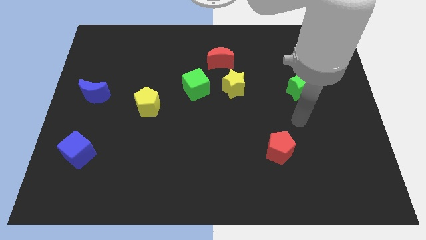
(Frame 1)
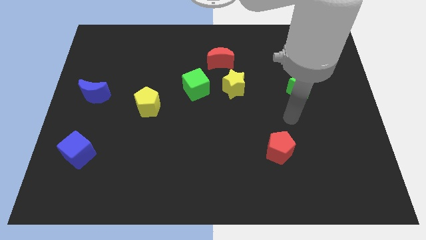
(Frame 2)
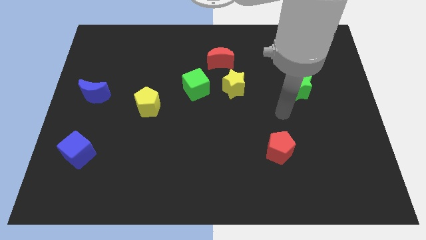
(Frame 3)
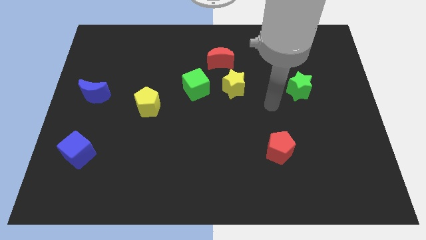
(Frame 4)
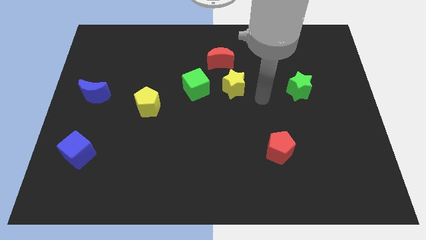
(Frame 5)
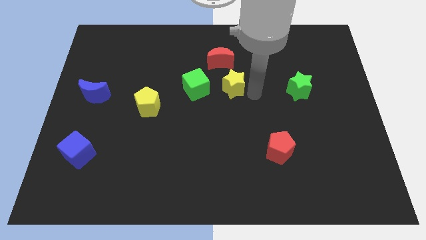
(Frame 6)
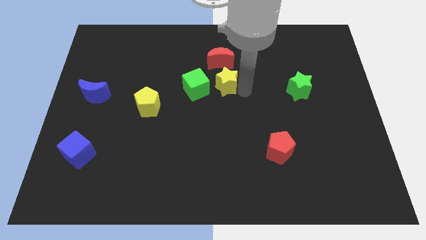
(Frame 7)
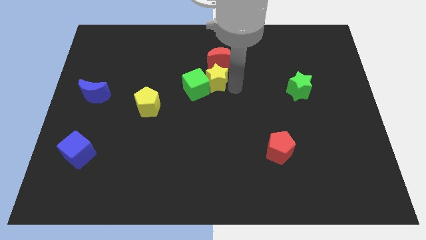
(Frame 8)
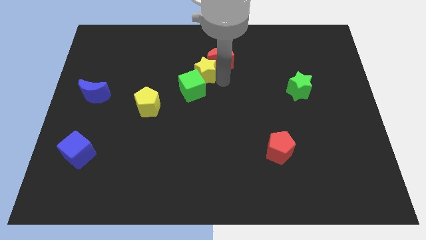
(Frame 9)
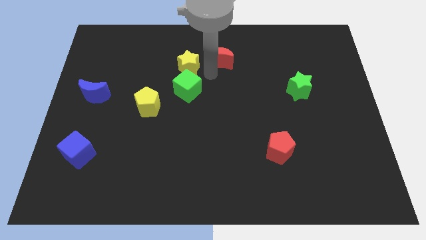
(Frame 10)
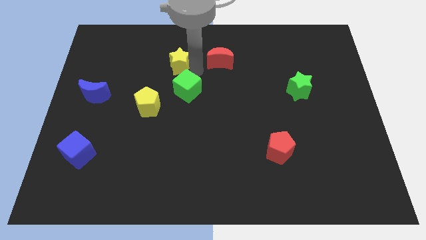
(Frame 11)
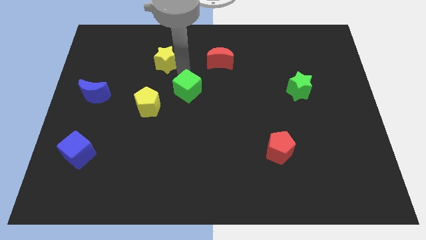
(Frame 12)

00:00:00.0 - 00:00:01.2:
move the green cube away from the yellow star

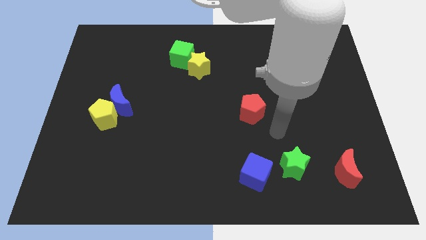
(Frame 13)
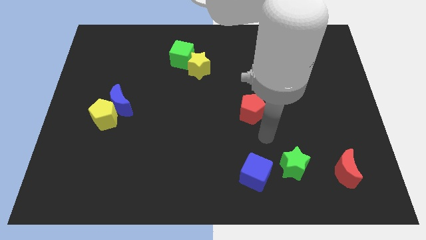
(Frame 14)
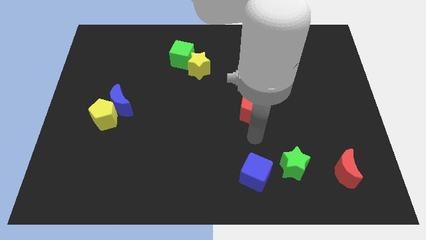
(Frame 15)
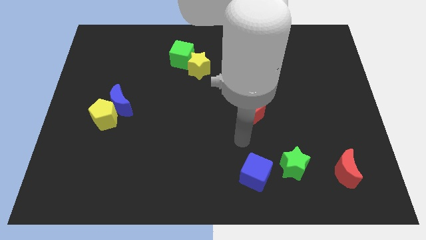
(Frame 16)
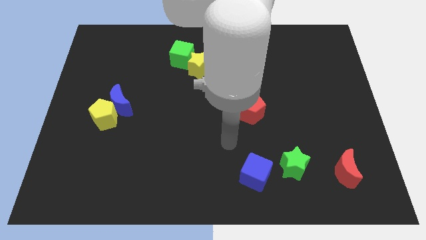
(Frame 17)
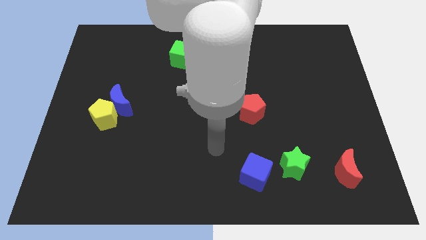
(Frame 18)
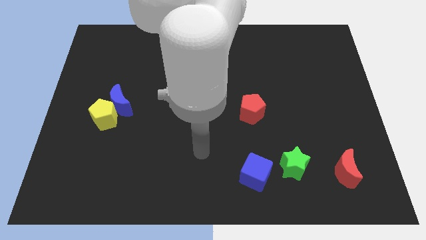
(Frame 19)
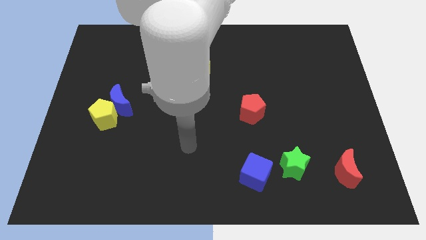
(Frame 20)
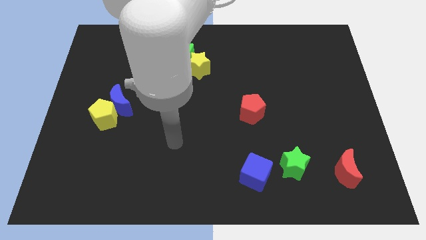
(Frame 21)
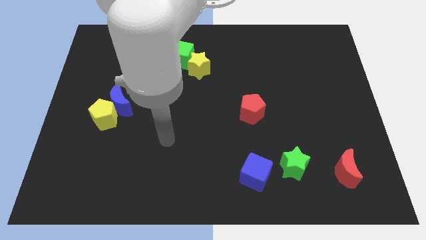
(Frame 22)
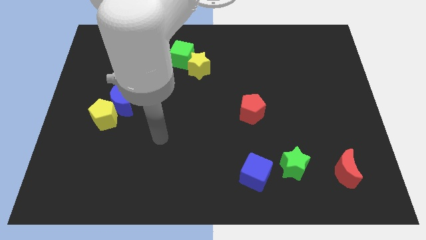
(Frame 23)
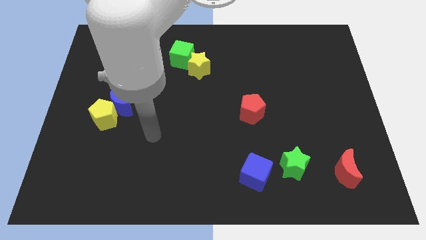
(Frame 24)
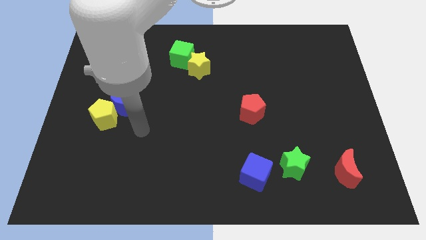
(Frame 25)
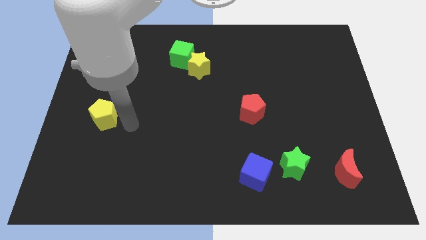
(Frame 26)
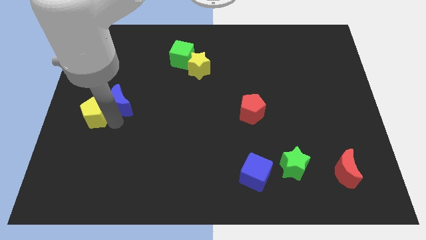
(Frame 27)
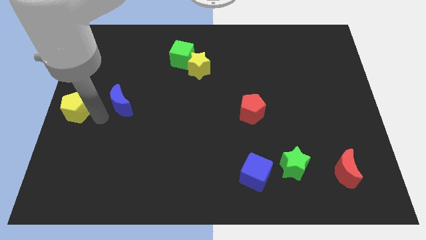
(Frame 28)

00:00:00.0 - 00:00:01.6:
separate the blue moon from the yellow pentagon

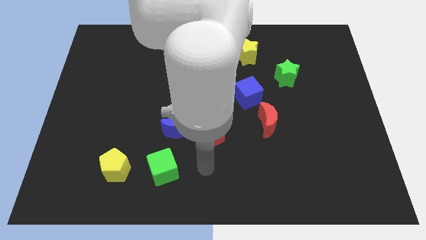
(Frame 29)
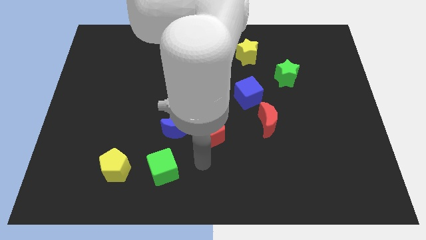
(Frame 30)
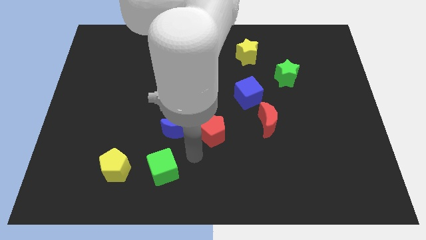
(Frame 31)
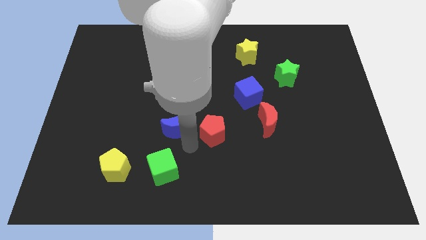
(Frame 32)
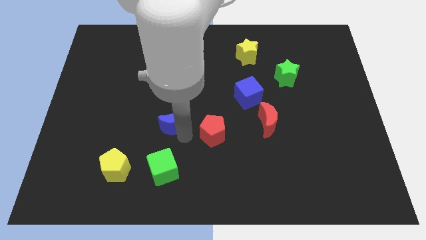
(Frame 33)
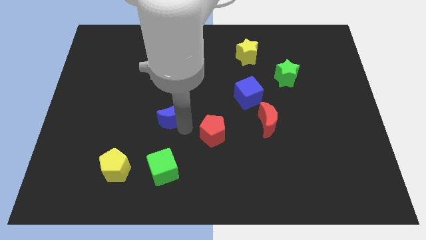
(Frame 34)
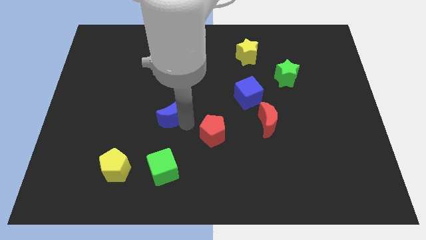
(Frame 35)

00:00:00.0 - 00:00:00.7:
separate the red pentagon from the blue moon

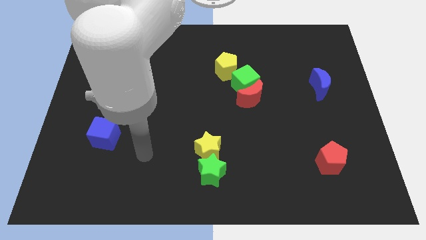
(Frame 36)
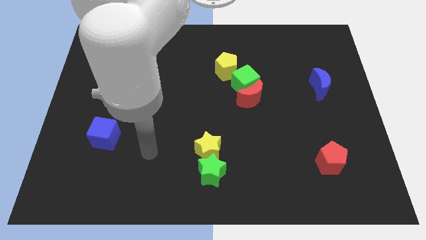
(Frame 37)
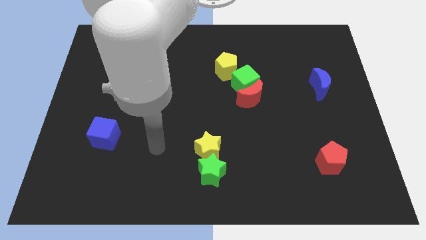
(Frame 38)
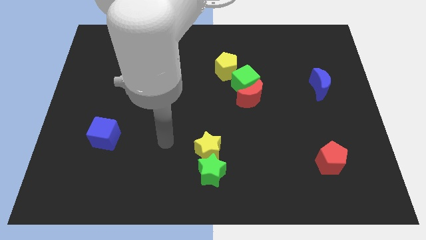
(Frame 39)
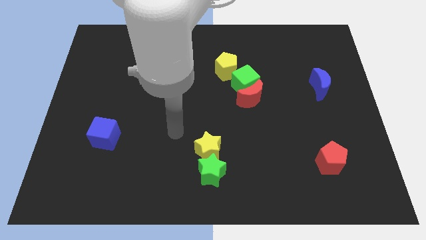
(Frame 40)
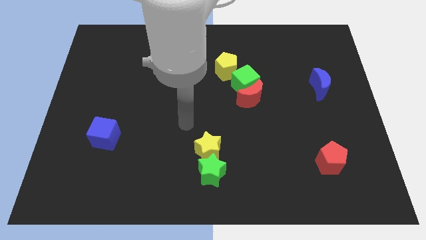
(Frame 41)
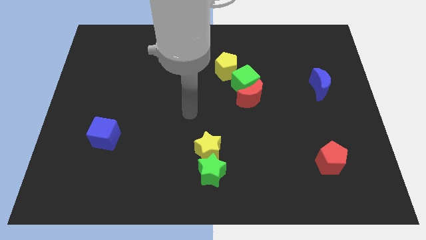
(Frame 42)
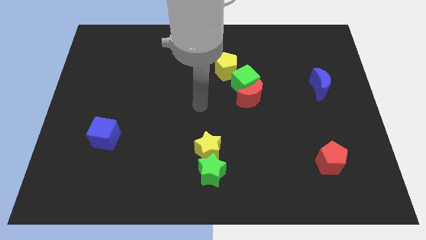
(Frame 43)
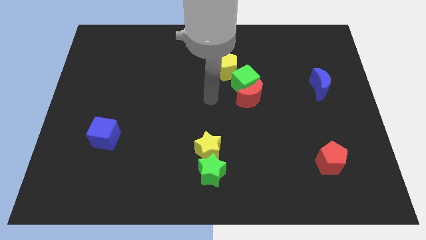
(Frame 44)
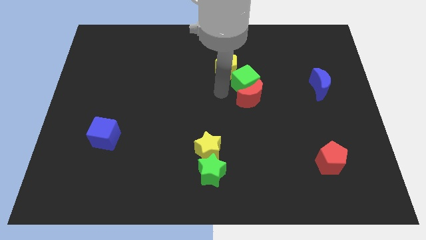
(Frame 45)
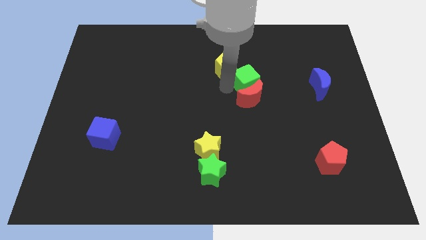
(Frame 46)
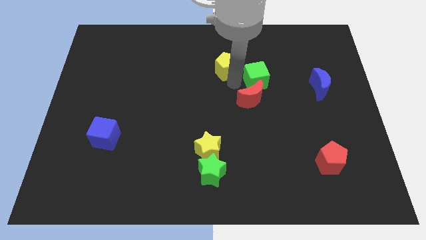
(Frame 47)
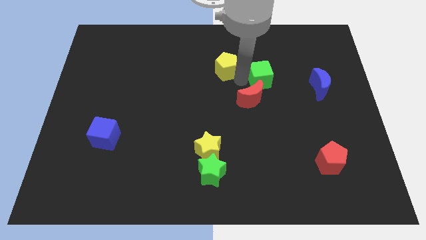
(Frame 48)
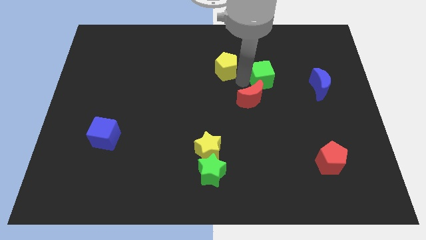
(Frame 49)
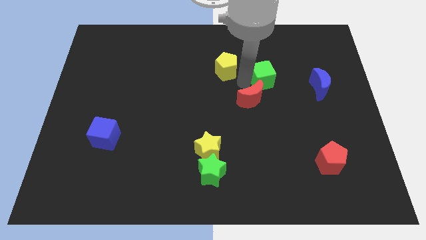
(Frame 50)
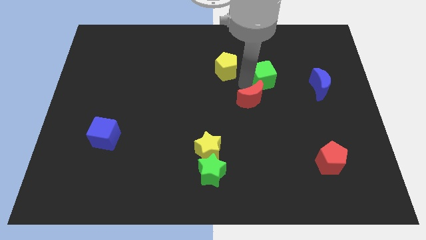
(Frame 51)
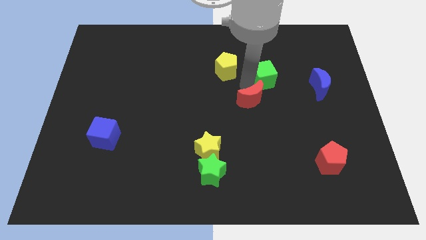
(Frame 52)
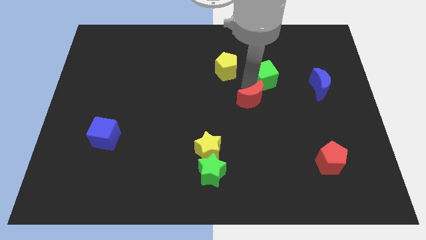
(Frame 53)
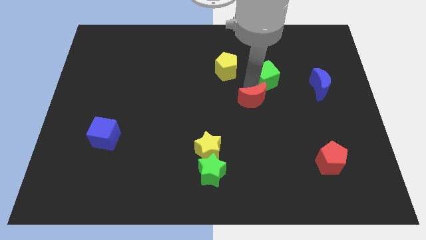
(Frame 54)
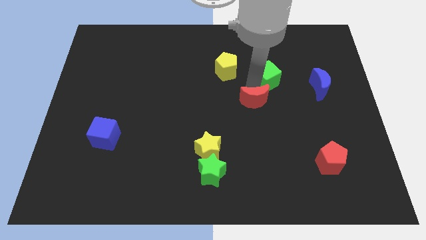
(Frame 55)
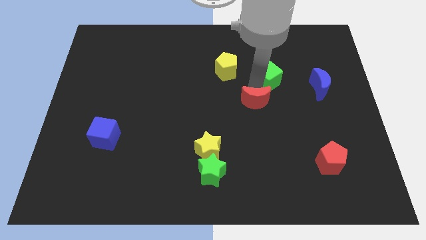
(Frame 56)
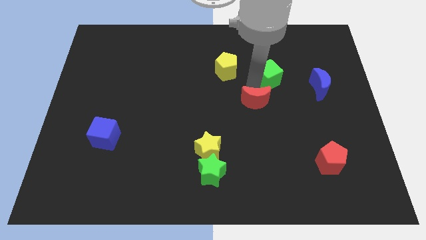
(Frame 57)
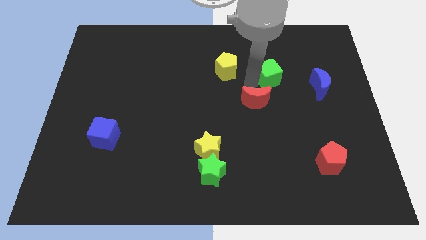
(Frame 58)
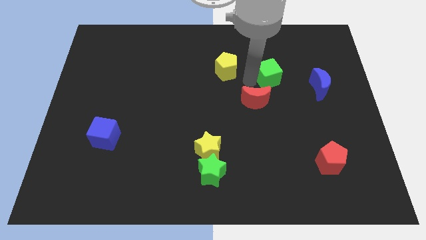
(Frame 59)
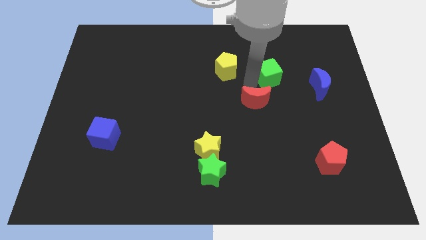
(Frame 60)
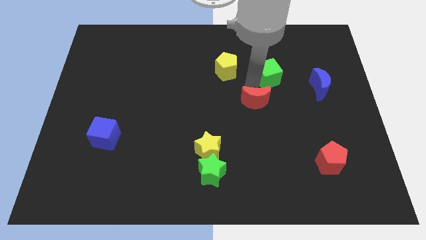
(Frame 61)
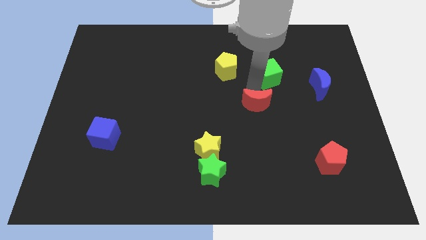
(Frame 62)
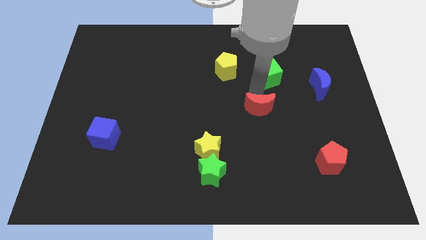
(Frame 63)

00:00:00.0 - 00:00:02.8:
pull the red moon apart from the green cube

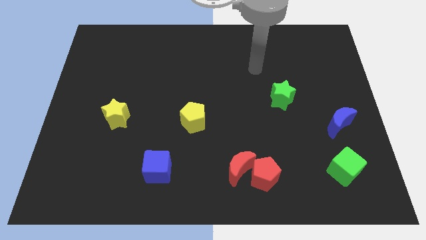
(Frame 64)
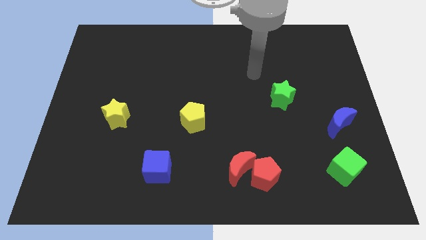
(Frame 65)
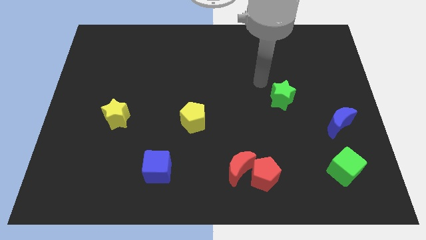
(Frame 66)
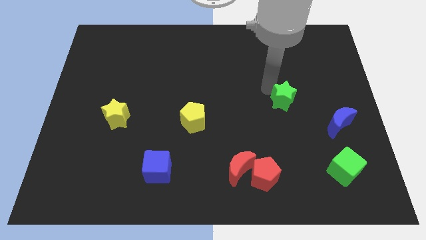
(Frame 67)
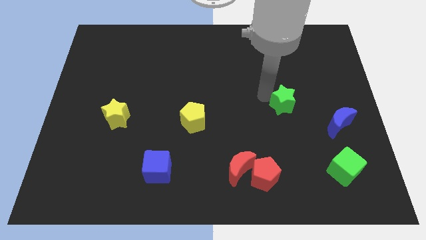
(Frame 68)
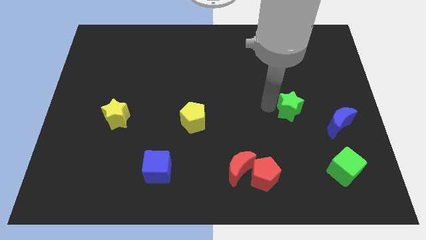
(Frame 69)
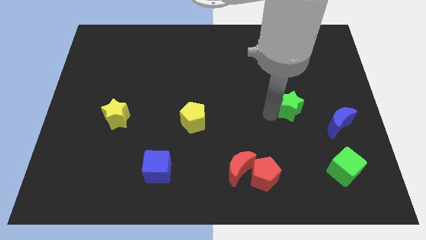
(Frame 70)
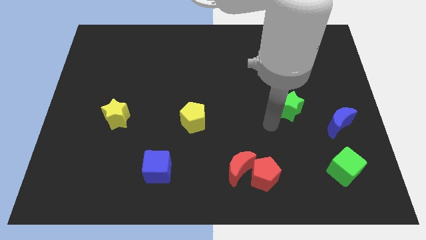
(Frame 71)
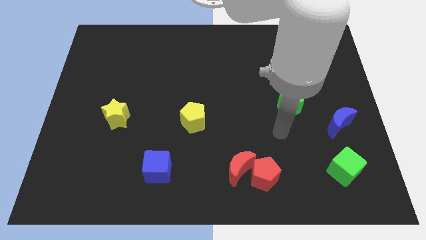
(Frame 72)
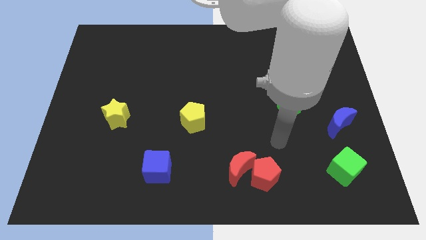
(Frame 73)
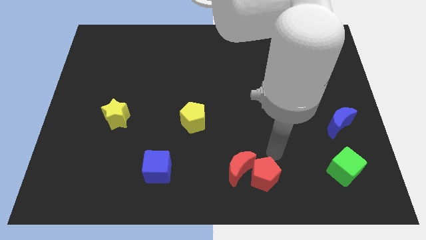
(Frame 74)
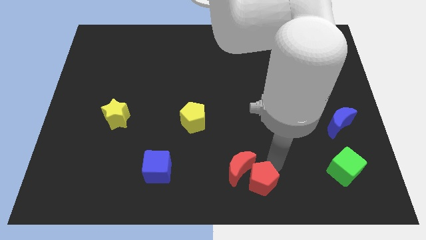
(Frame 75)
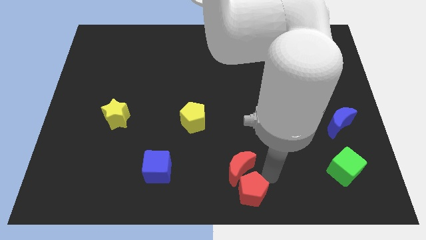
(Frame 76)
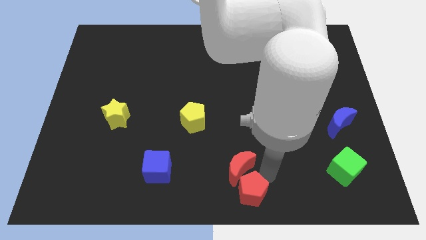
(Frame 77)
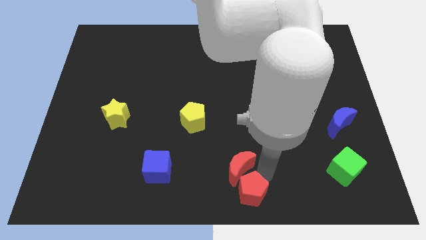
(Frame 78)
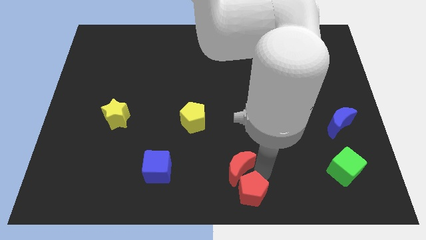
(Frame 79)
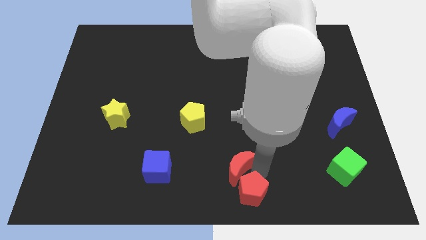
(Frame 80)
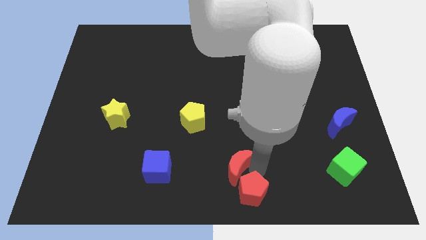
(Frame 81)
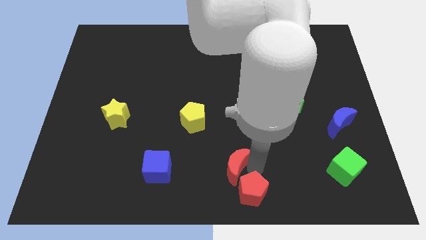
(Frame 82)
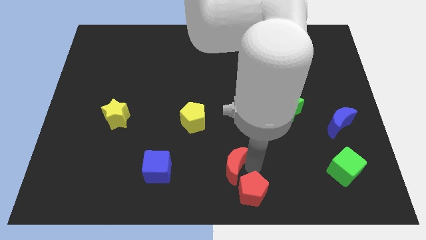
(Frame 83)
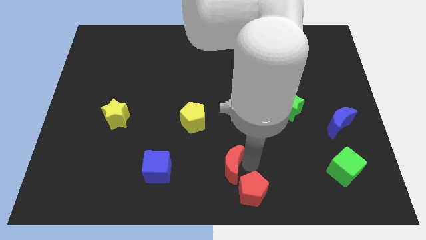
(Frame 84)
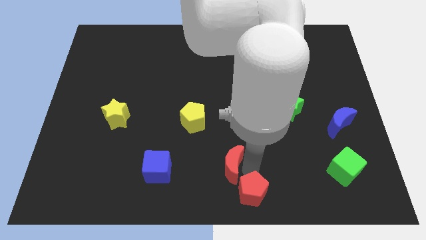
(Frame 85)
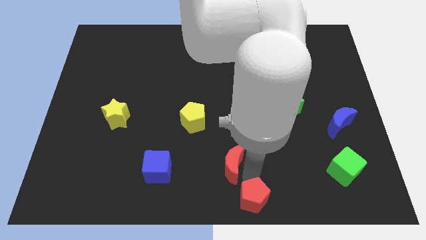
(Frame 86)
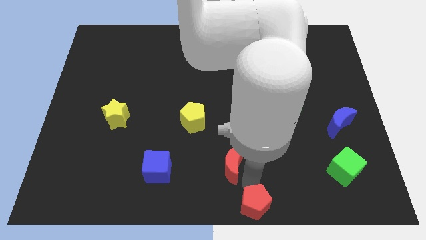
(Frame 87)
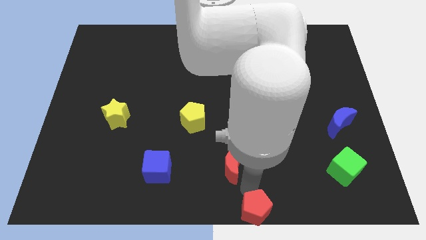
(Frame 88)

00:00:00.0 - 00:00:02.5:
move the red moon away from the red pentagon

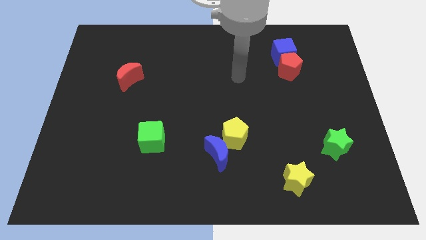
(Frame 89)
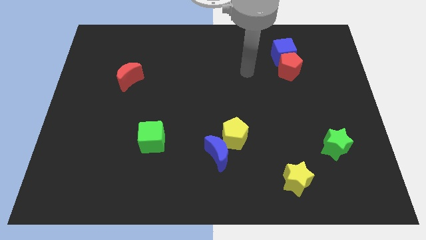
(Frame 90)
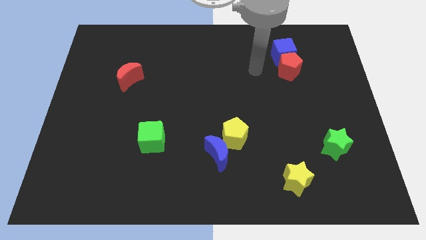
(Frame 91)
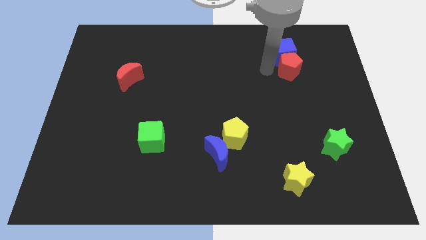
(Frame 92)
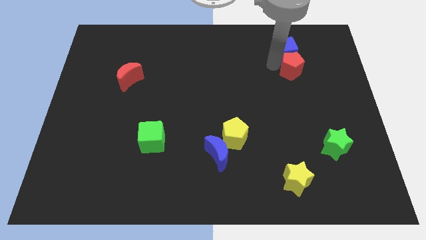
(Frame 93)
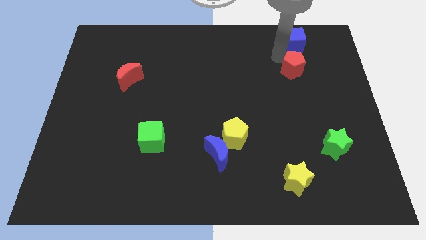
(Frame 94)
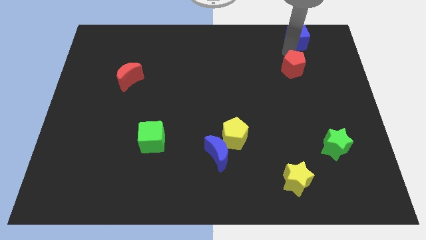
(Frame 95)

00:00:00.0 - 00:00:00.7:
pull the red pentagon apart from the blue cube
